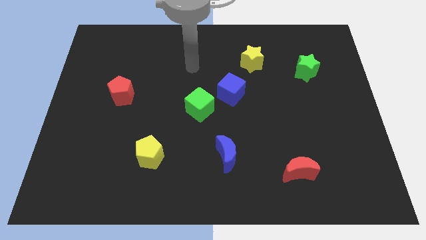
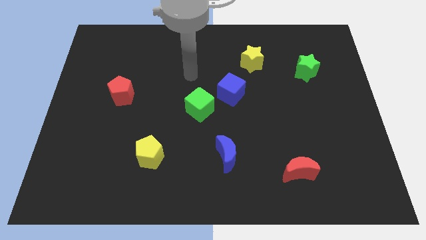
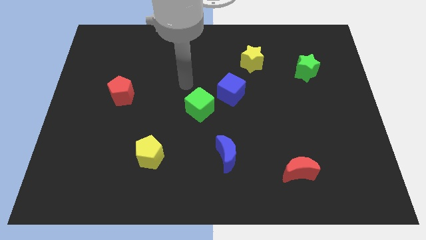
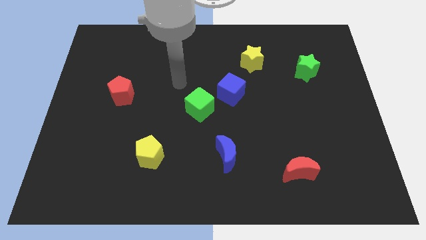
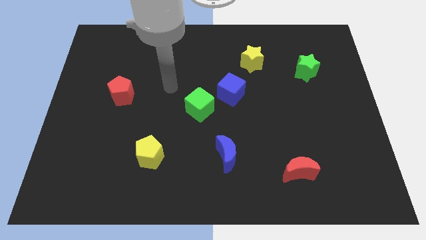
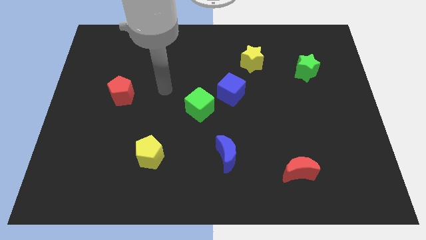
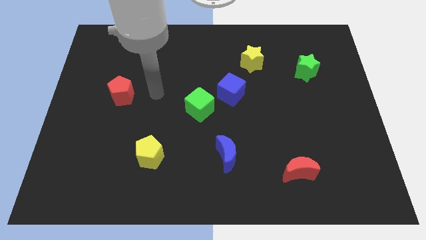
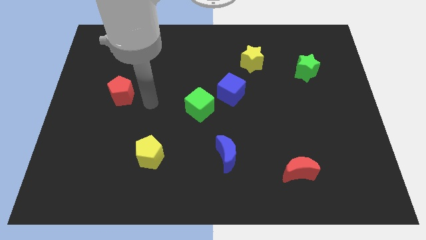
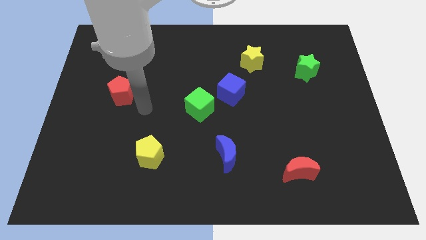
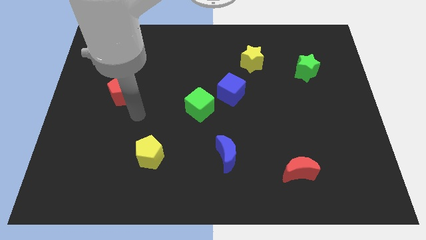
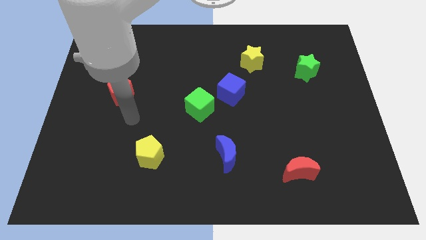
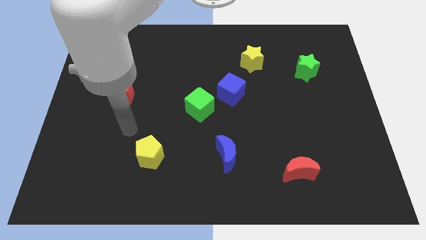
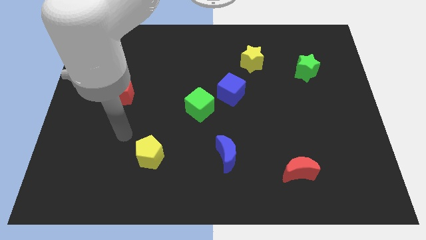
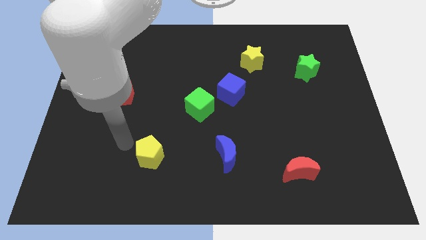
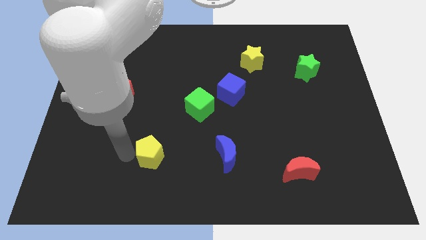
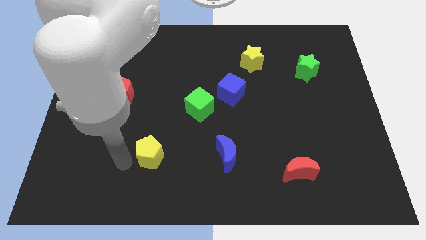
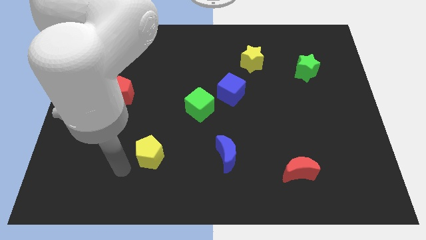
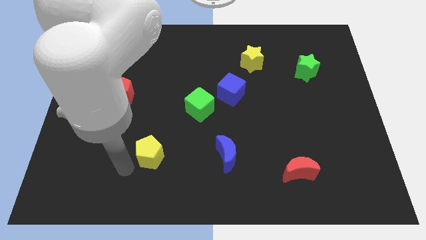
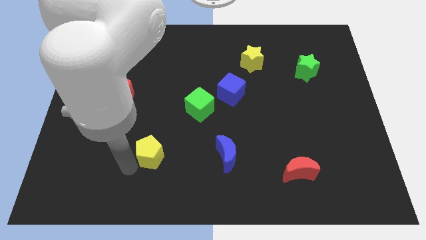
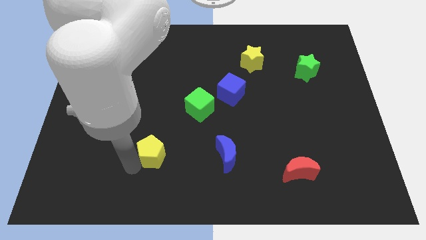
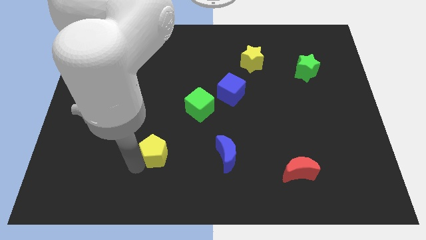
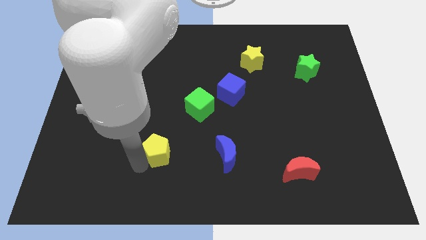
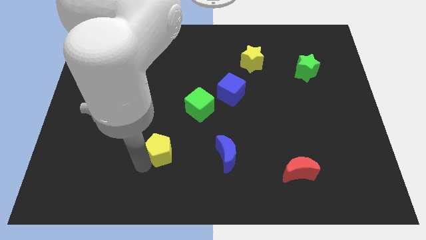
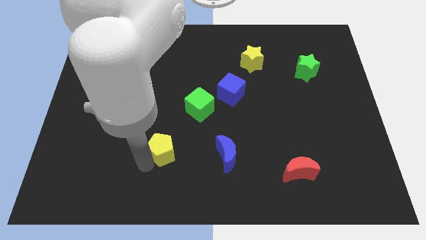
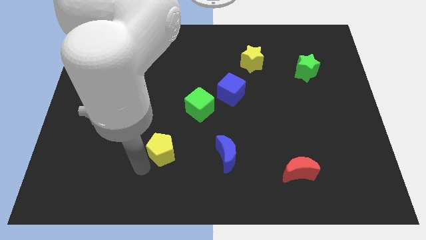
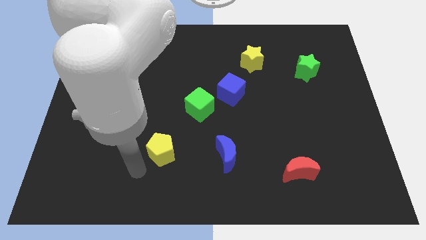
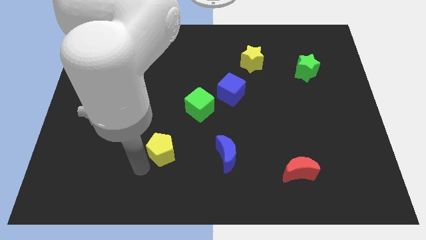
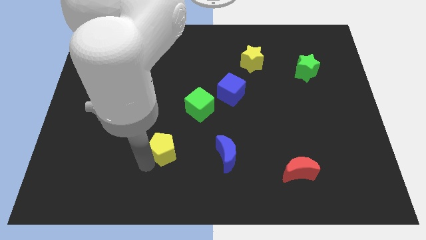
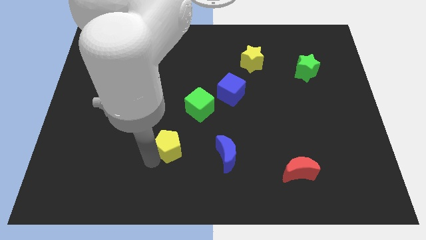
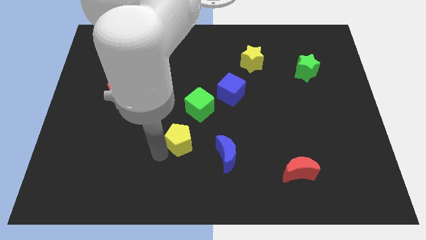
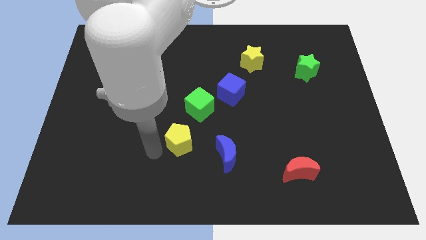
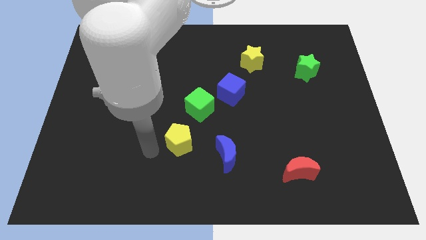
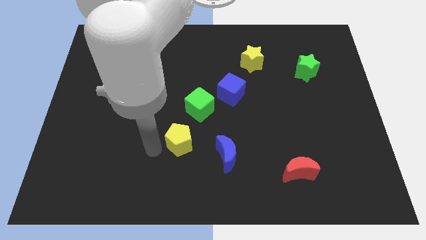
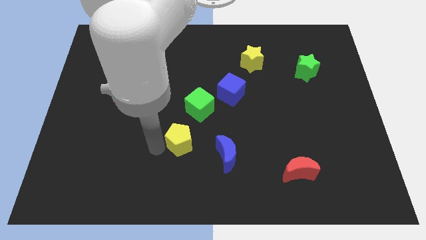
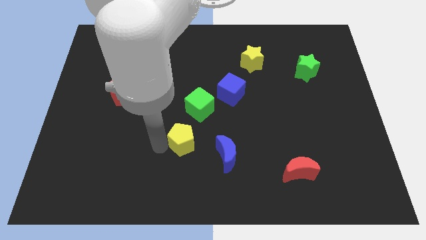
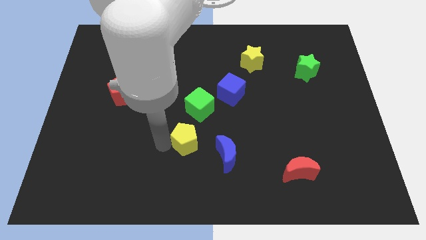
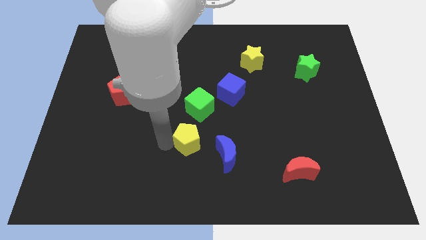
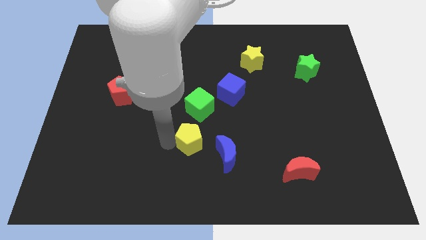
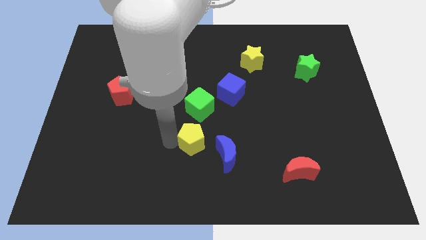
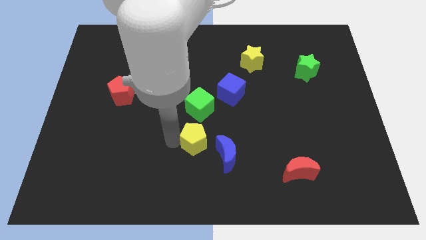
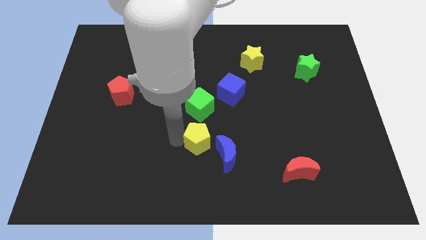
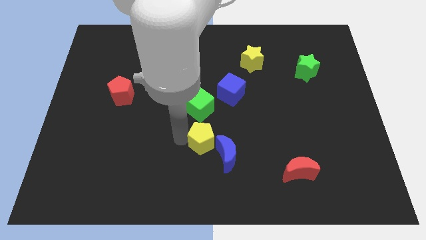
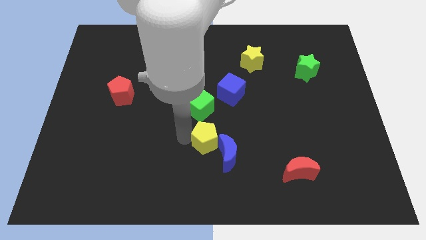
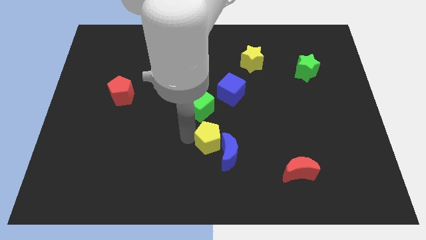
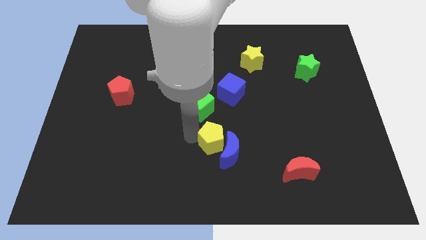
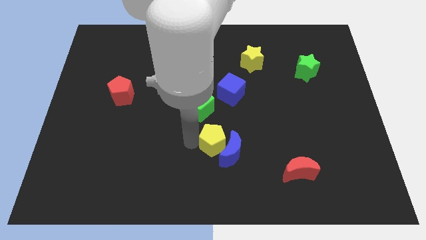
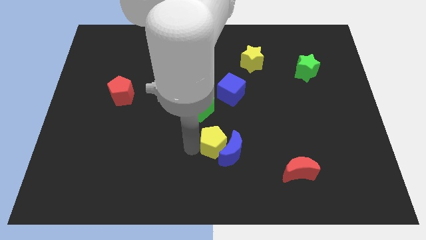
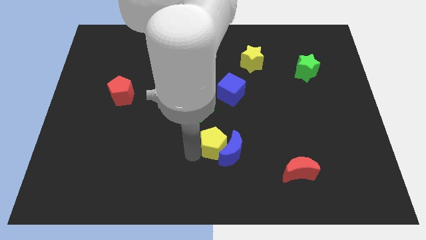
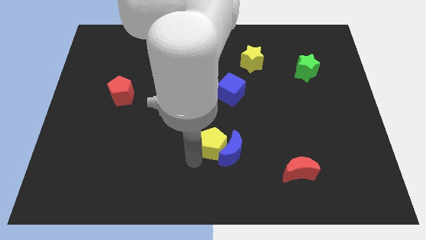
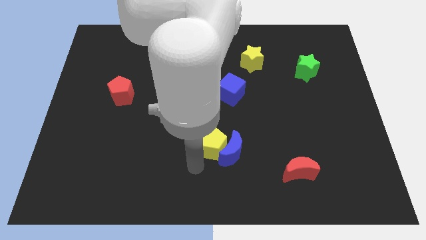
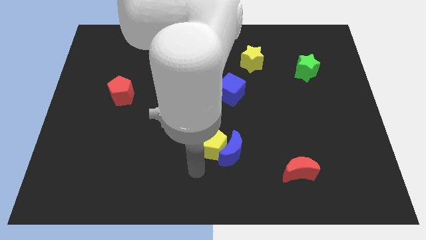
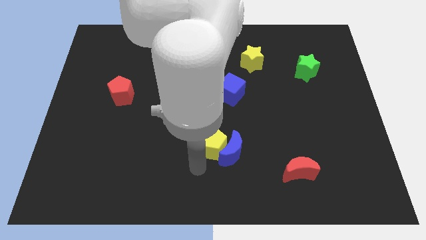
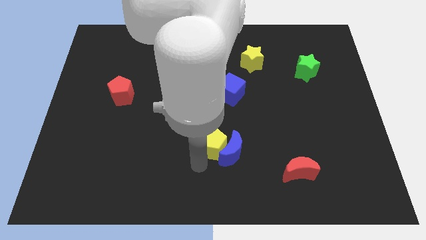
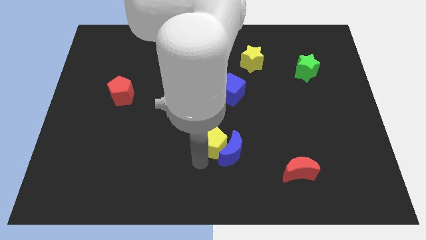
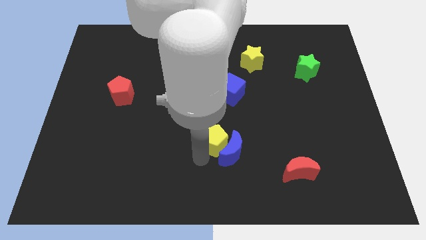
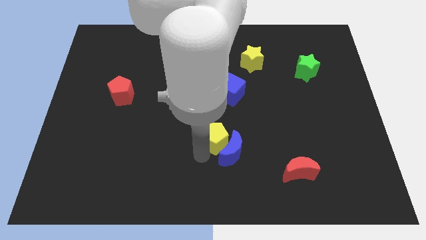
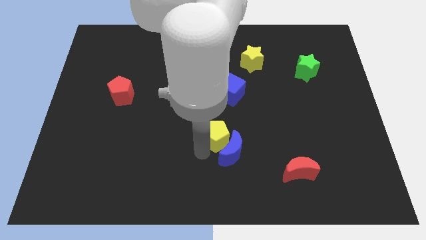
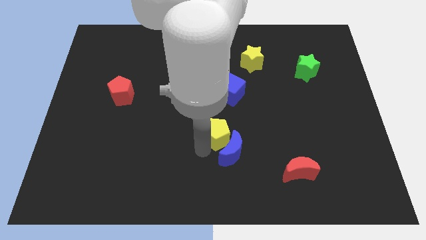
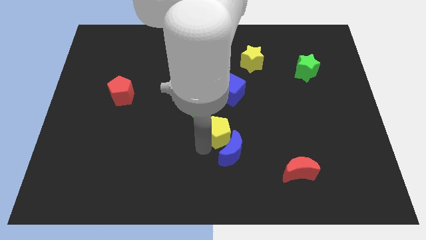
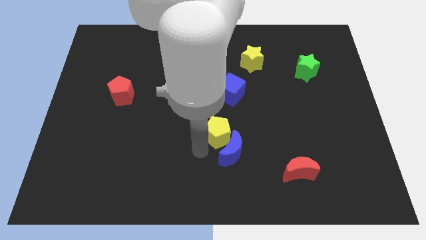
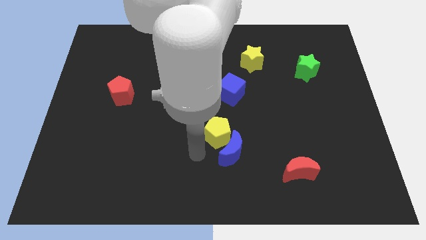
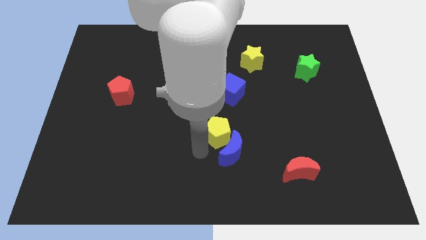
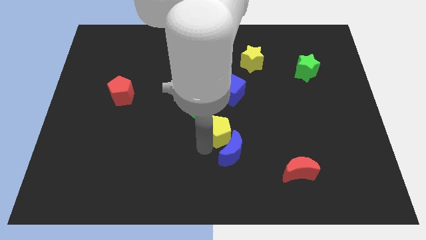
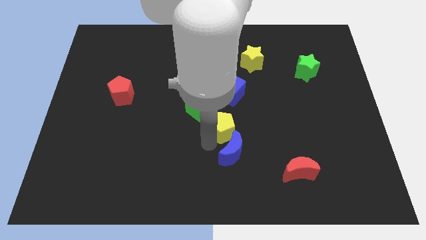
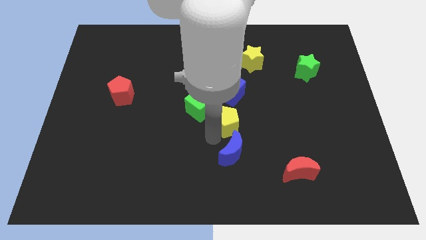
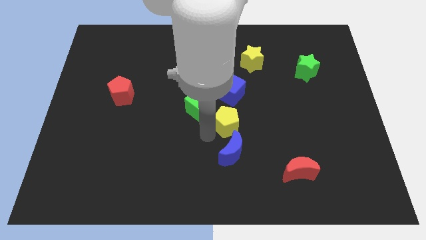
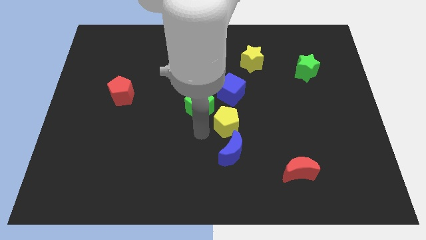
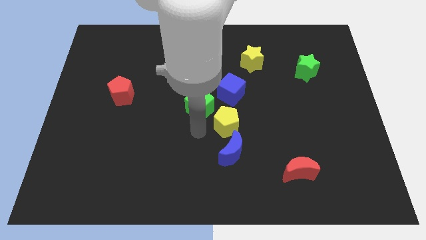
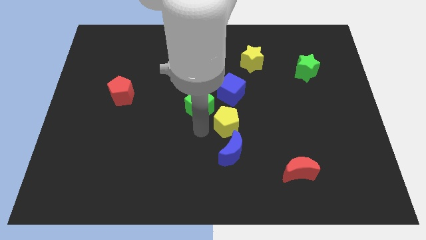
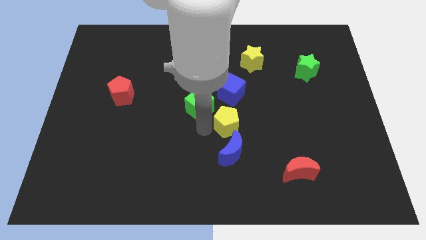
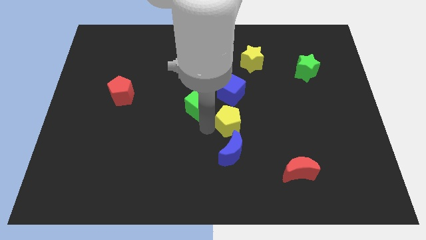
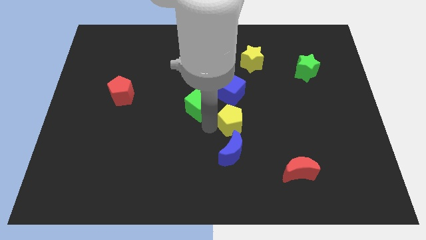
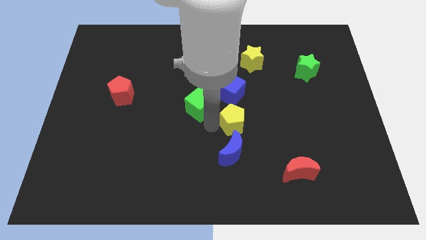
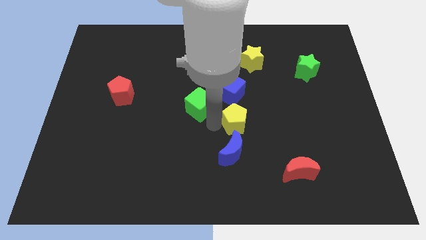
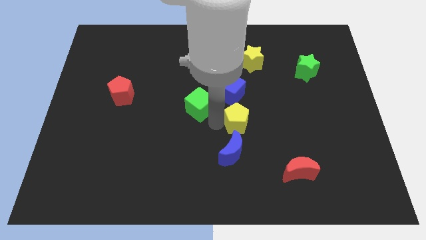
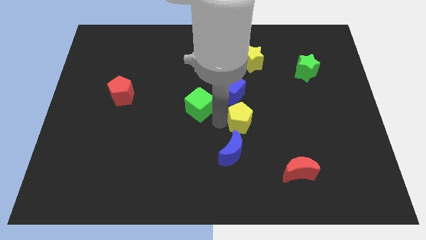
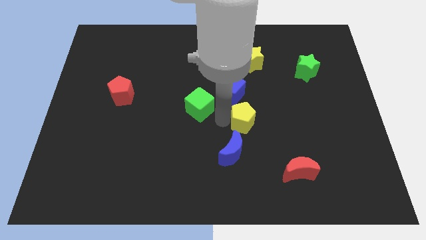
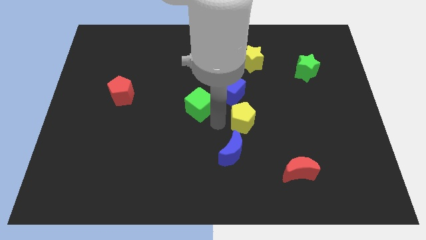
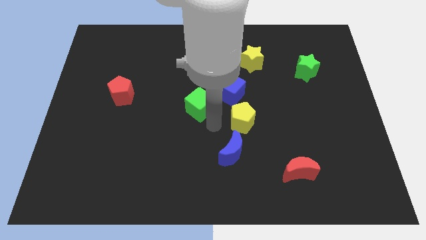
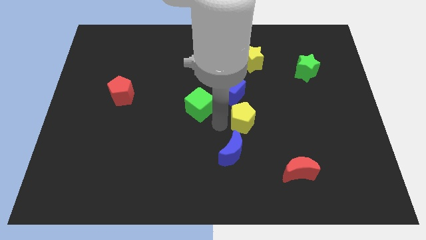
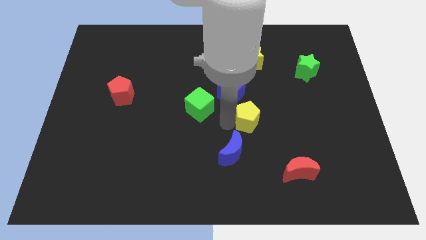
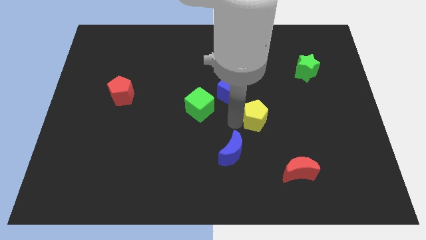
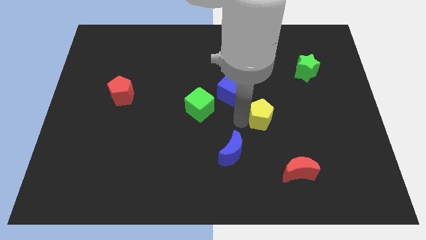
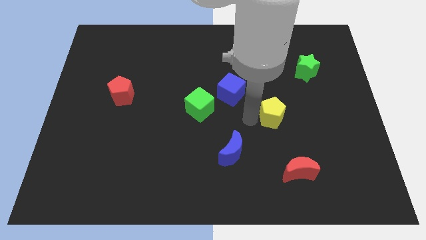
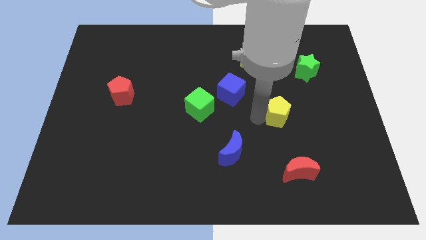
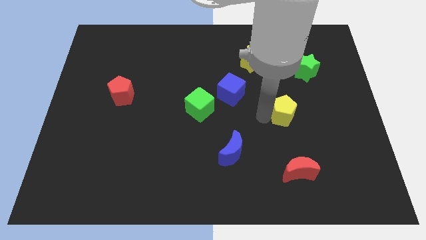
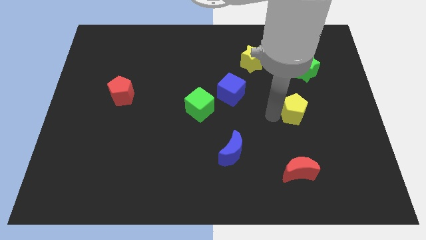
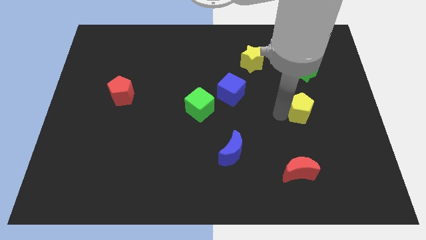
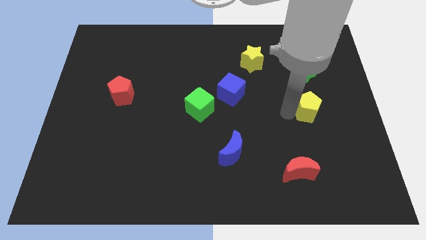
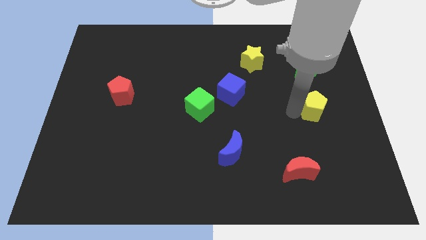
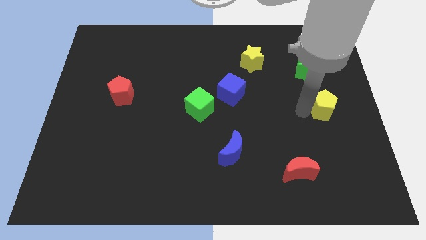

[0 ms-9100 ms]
put the yellow pentagon to the right side of the board
